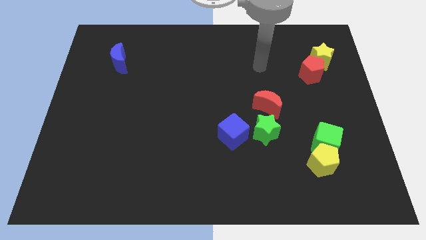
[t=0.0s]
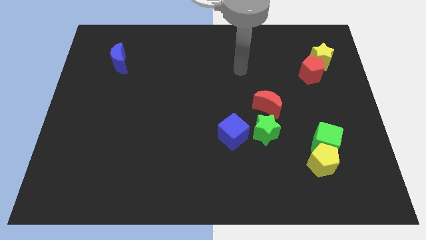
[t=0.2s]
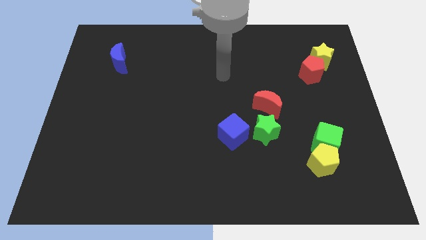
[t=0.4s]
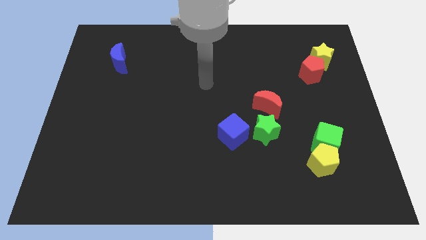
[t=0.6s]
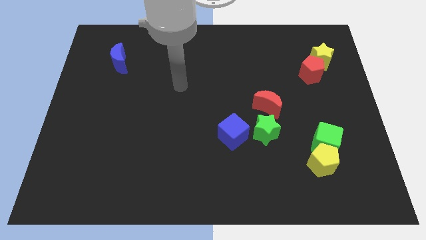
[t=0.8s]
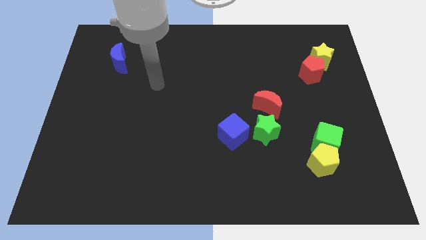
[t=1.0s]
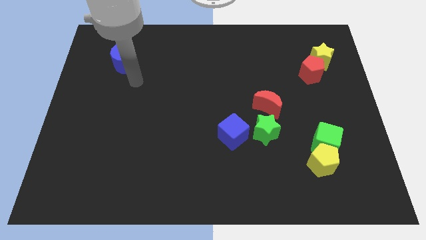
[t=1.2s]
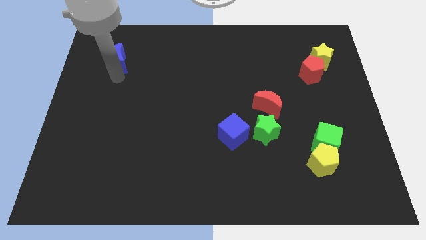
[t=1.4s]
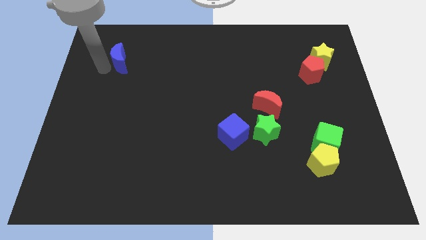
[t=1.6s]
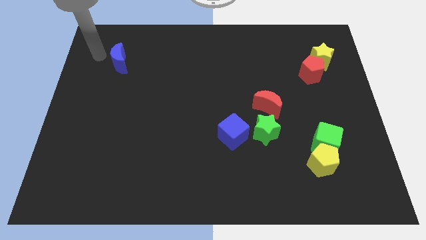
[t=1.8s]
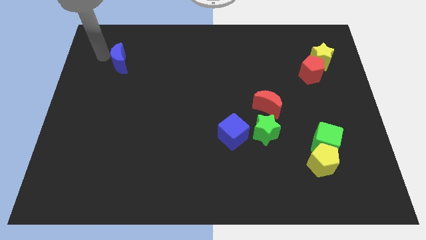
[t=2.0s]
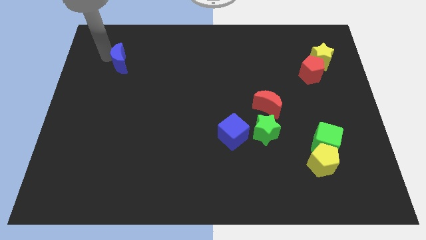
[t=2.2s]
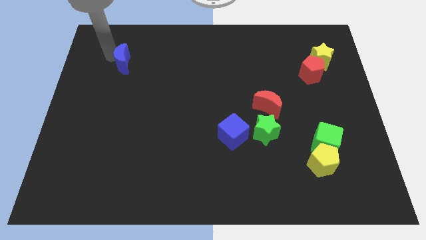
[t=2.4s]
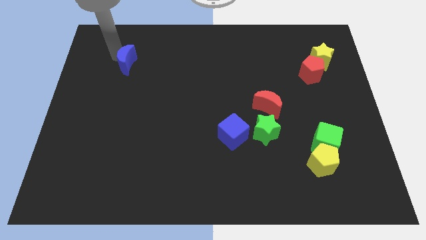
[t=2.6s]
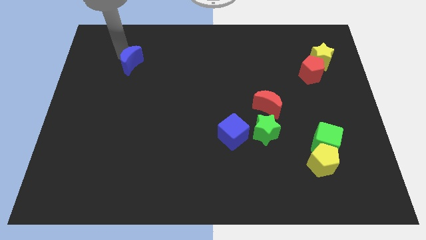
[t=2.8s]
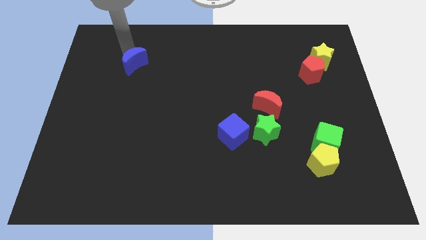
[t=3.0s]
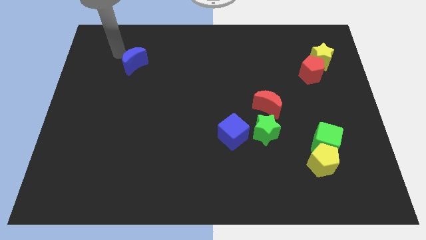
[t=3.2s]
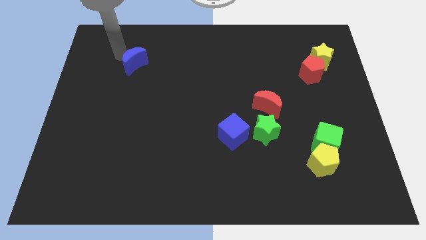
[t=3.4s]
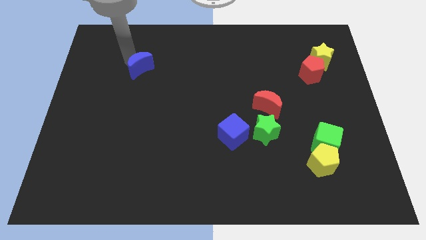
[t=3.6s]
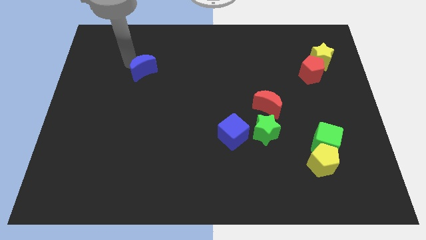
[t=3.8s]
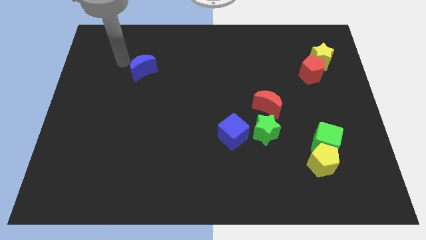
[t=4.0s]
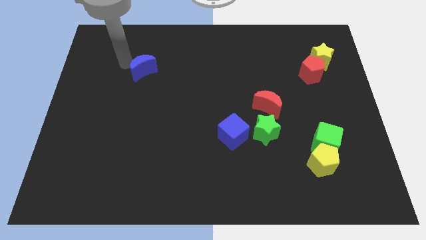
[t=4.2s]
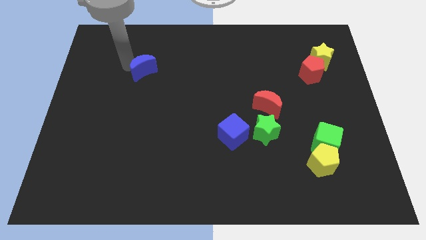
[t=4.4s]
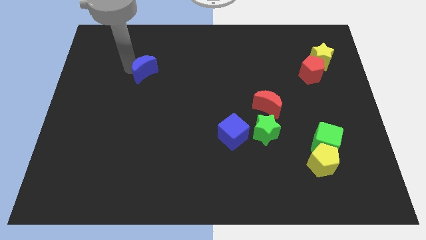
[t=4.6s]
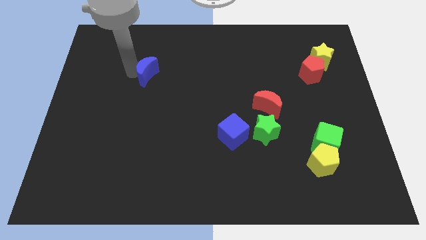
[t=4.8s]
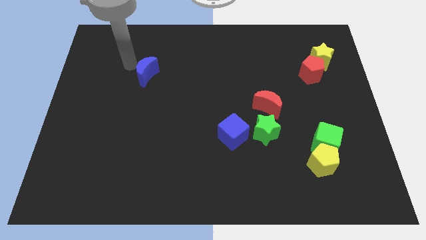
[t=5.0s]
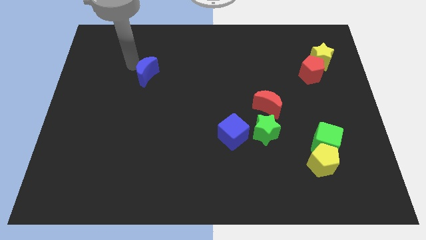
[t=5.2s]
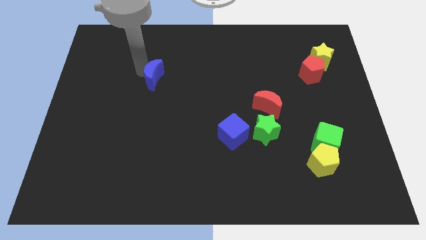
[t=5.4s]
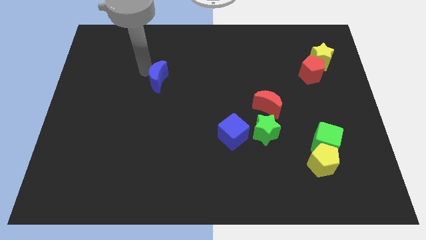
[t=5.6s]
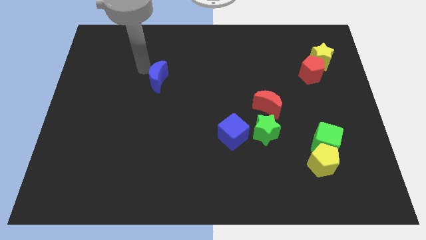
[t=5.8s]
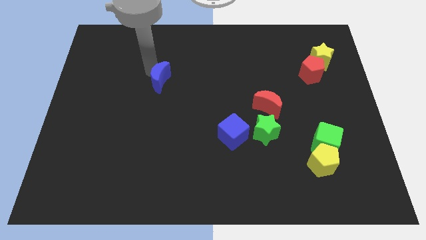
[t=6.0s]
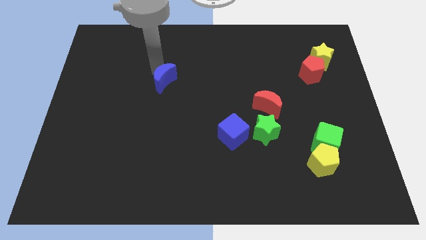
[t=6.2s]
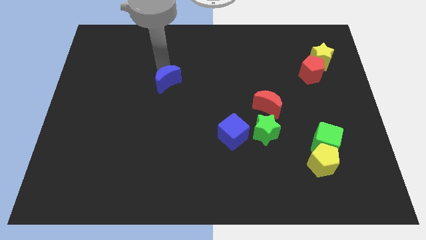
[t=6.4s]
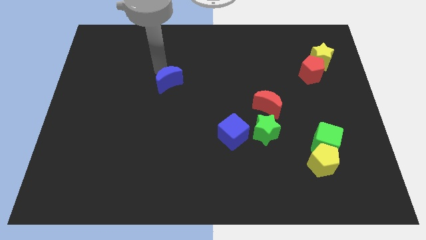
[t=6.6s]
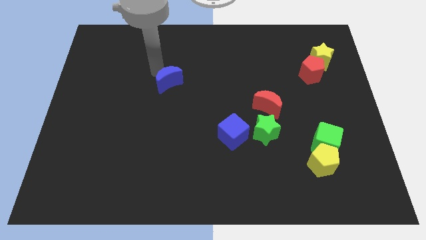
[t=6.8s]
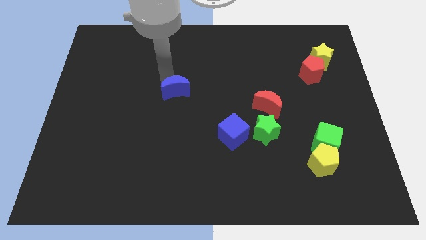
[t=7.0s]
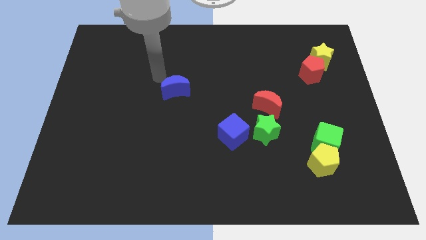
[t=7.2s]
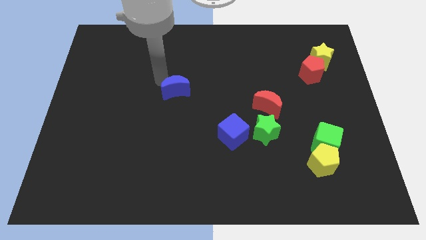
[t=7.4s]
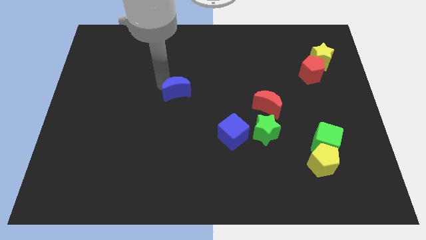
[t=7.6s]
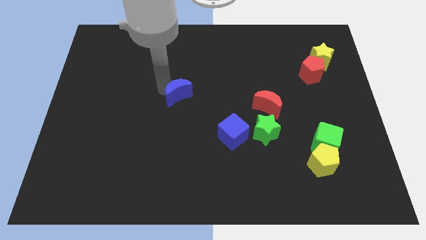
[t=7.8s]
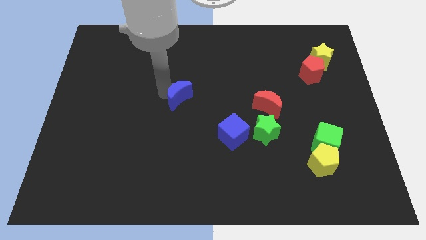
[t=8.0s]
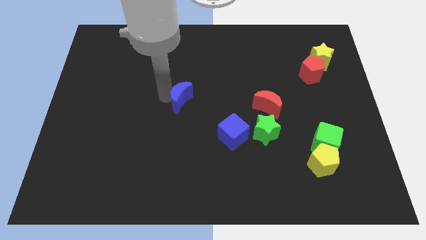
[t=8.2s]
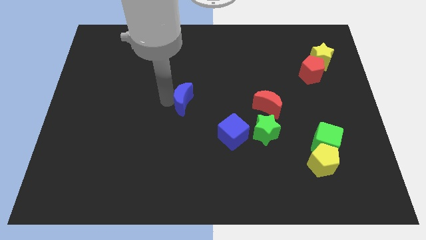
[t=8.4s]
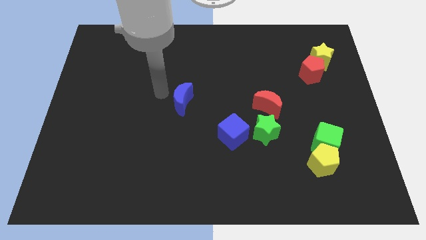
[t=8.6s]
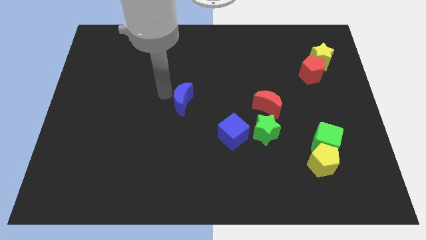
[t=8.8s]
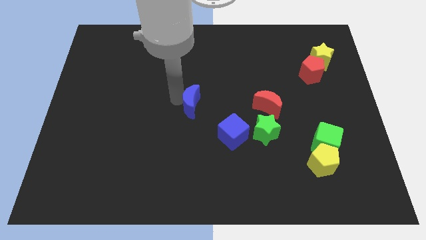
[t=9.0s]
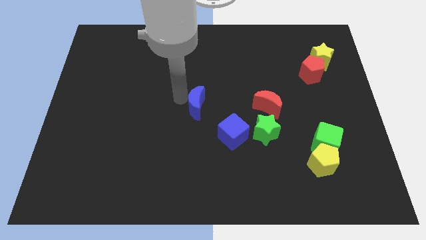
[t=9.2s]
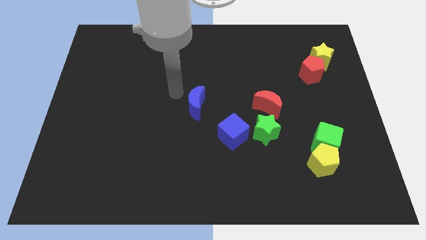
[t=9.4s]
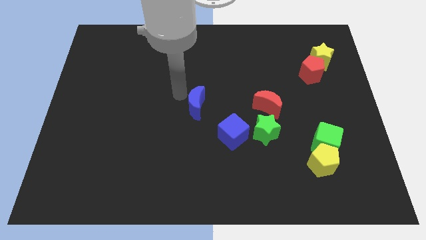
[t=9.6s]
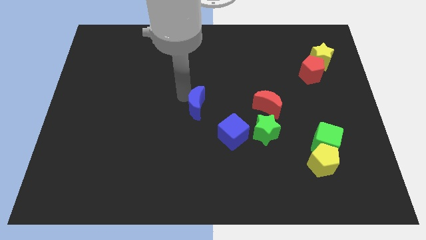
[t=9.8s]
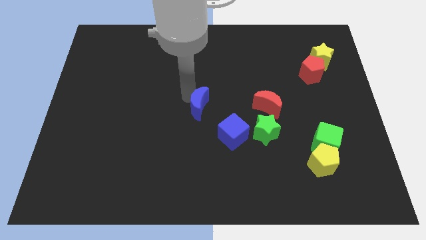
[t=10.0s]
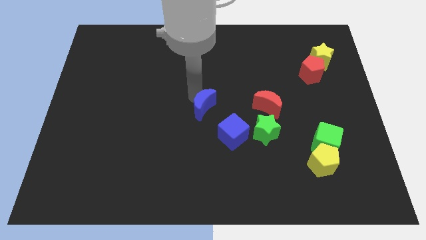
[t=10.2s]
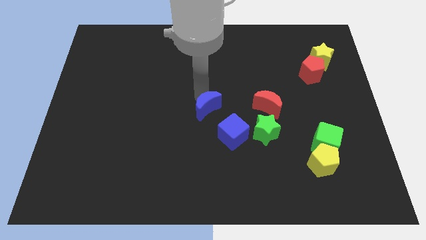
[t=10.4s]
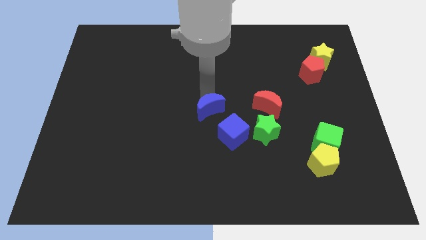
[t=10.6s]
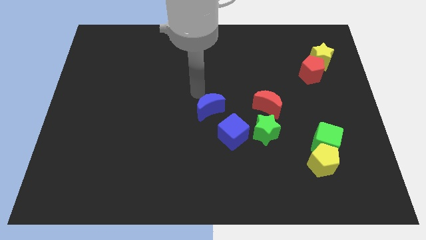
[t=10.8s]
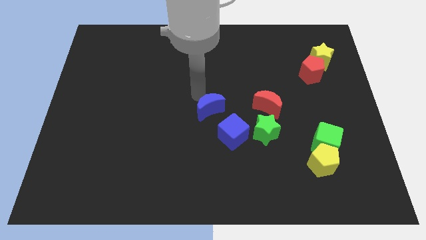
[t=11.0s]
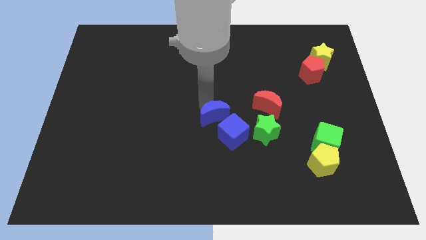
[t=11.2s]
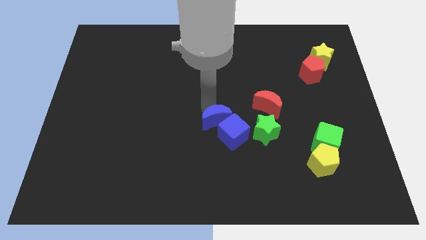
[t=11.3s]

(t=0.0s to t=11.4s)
put the blue moon close to the blue cube

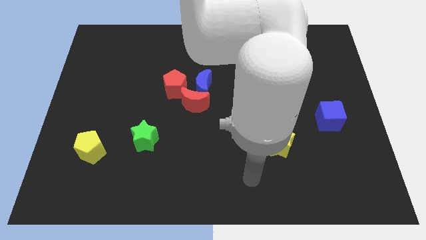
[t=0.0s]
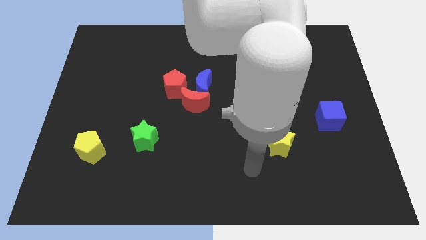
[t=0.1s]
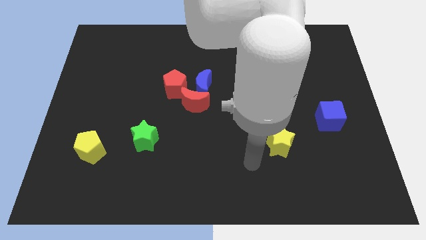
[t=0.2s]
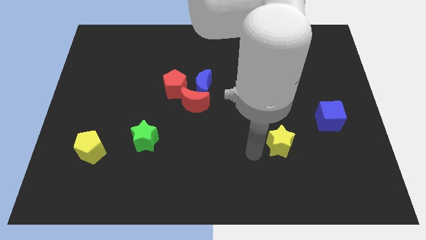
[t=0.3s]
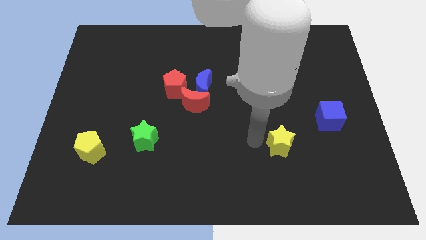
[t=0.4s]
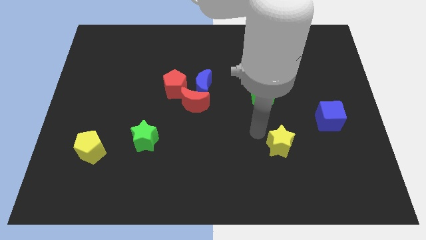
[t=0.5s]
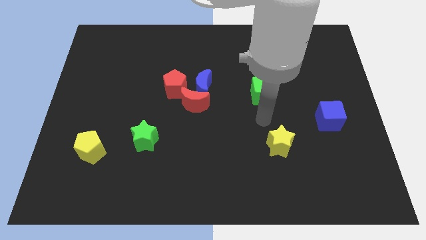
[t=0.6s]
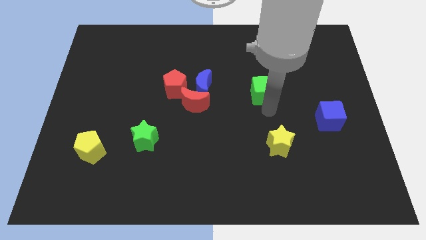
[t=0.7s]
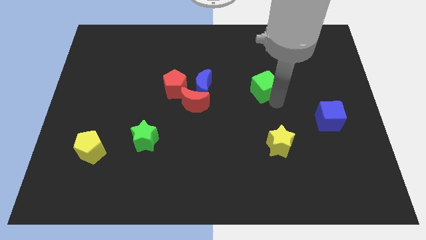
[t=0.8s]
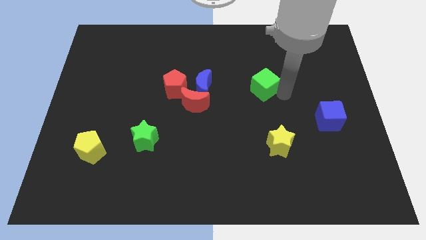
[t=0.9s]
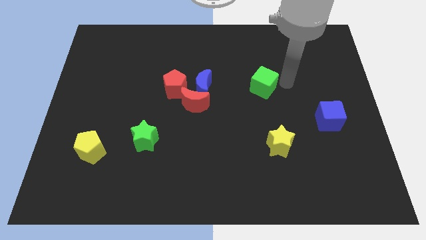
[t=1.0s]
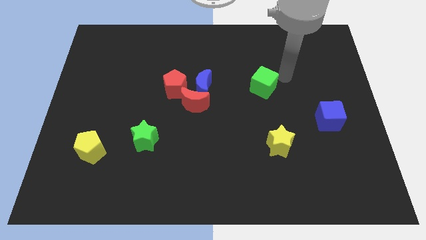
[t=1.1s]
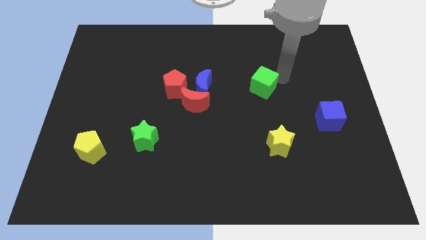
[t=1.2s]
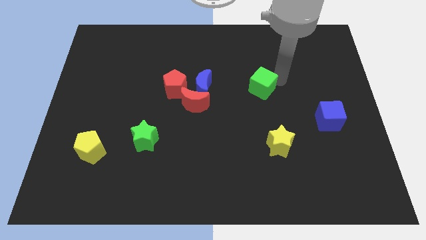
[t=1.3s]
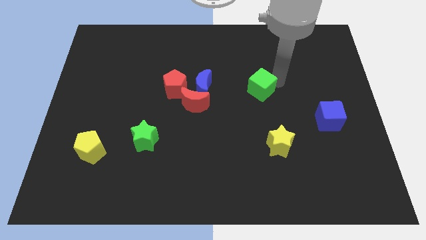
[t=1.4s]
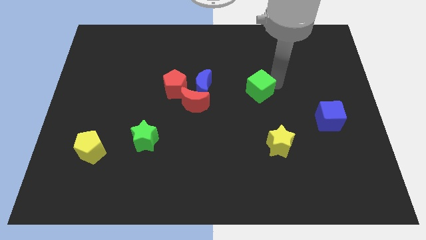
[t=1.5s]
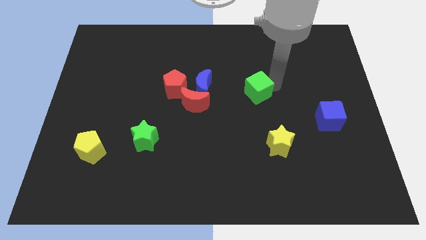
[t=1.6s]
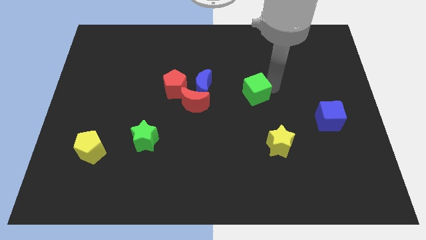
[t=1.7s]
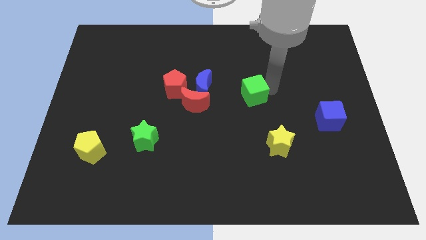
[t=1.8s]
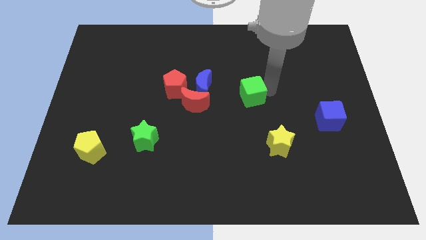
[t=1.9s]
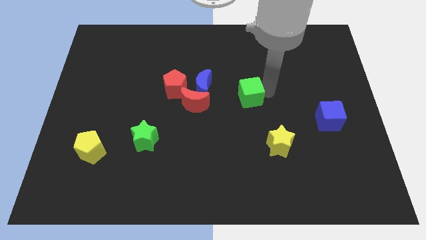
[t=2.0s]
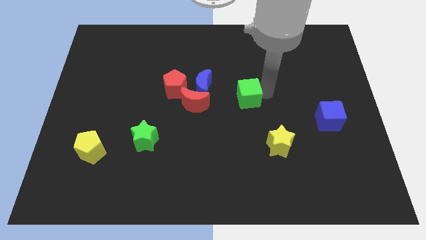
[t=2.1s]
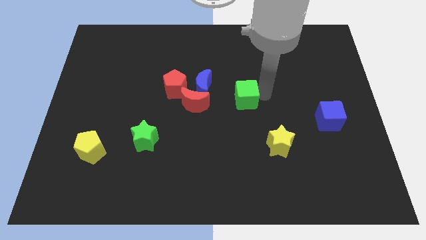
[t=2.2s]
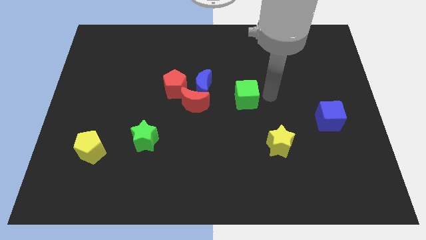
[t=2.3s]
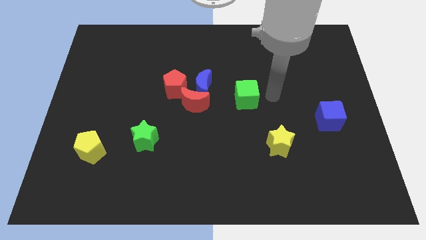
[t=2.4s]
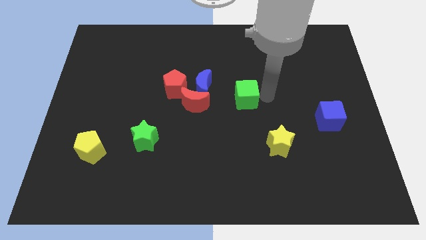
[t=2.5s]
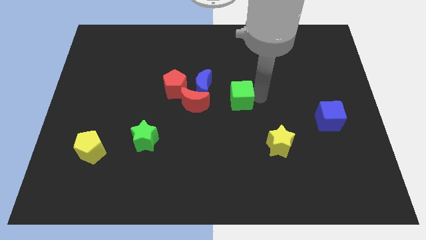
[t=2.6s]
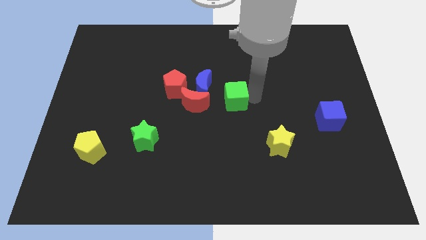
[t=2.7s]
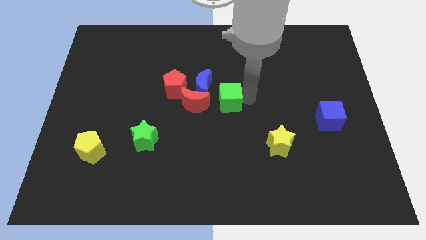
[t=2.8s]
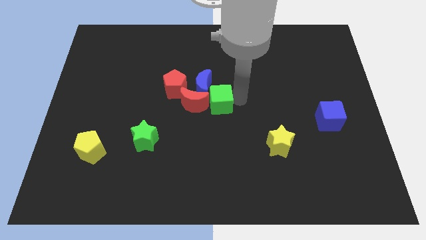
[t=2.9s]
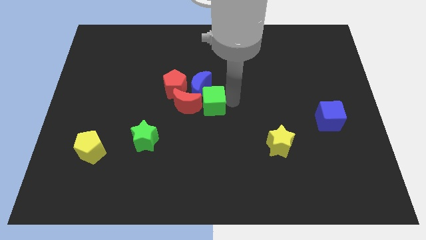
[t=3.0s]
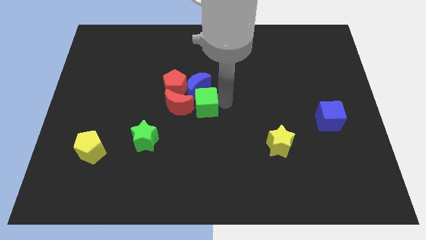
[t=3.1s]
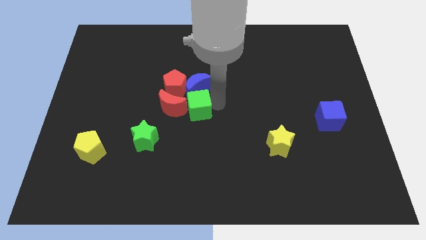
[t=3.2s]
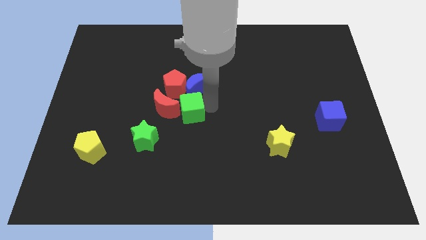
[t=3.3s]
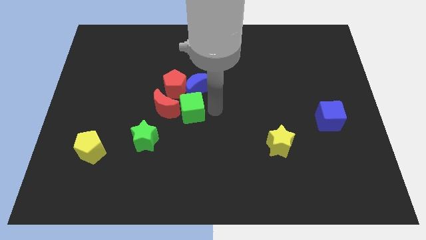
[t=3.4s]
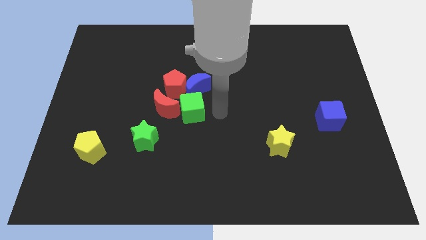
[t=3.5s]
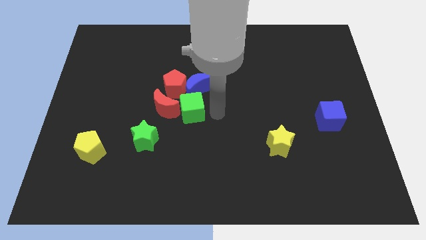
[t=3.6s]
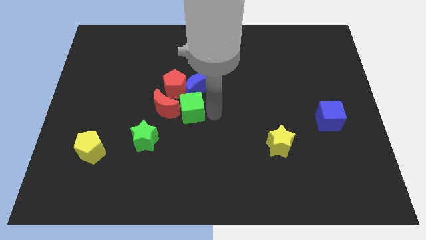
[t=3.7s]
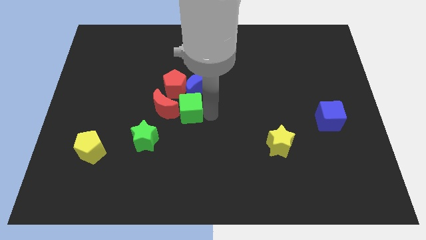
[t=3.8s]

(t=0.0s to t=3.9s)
slide the green cube towards the red moon
